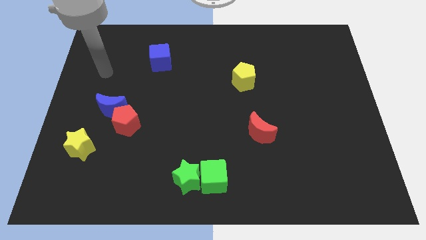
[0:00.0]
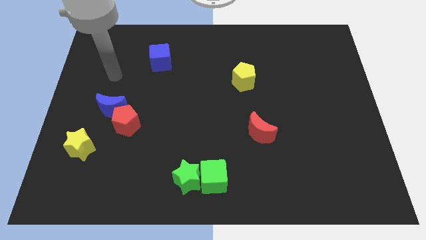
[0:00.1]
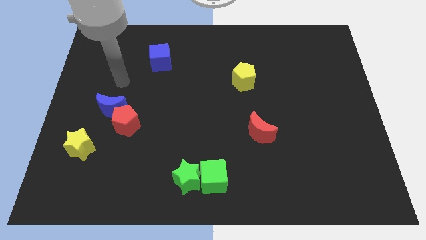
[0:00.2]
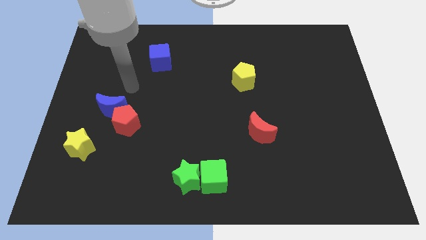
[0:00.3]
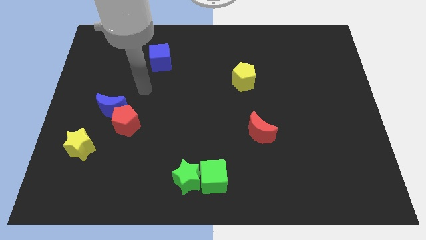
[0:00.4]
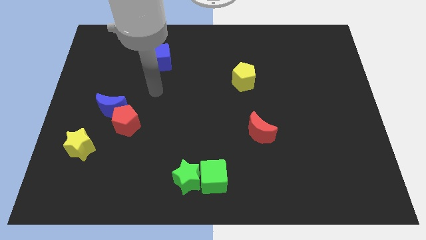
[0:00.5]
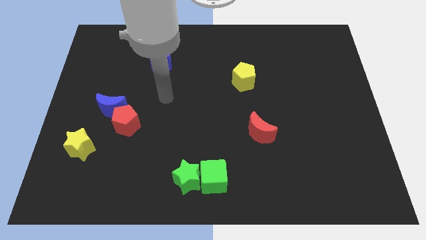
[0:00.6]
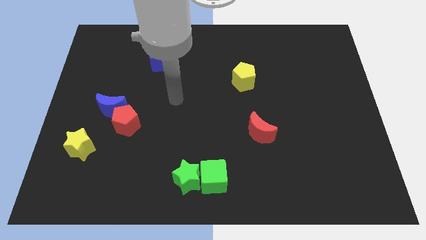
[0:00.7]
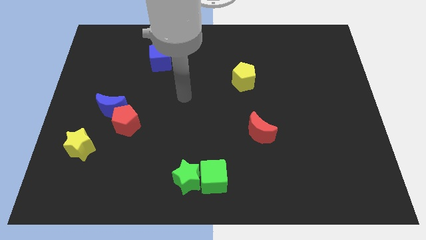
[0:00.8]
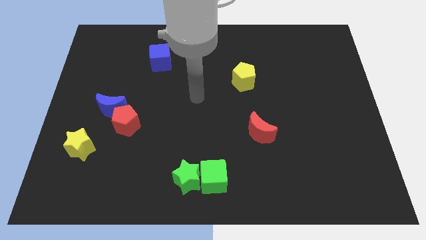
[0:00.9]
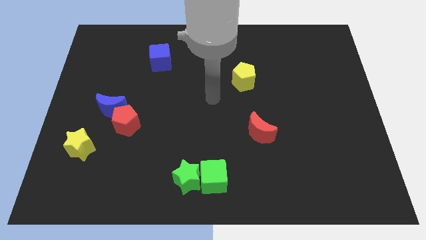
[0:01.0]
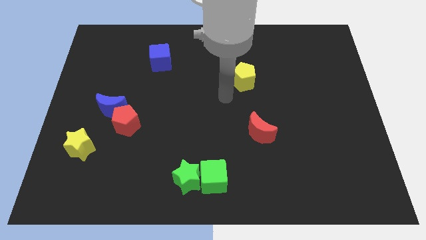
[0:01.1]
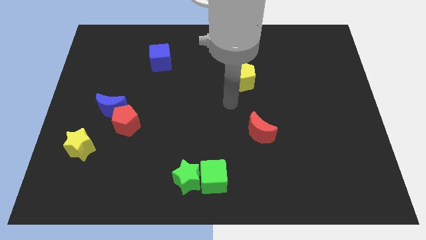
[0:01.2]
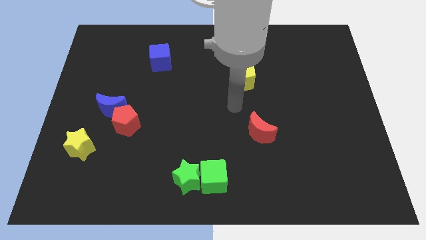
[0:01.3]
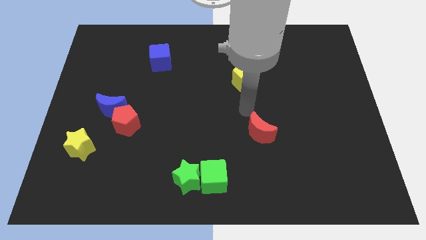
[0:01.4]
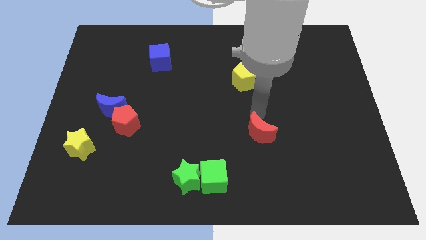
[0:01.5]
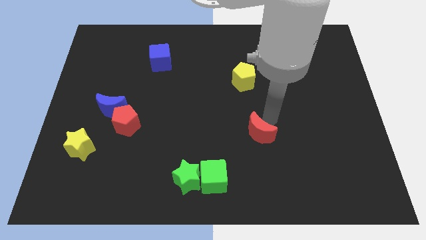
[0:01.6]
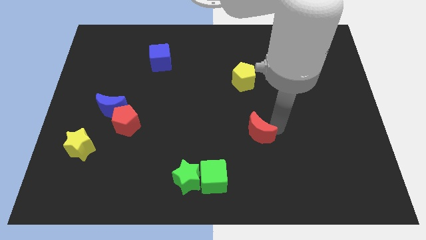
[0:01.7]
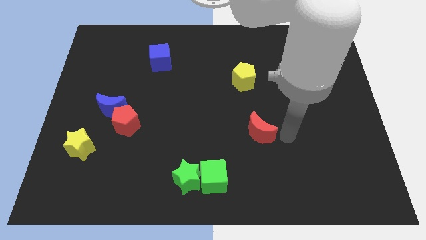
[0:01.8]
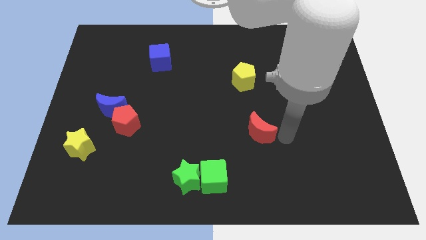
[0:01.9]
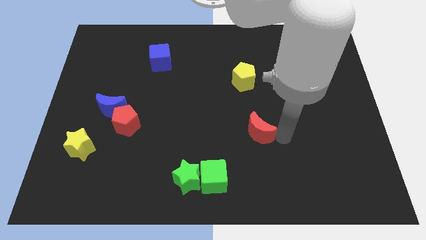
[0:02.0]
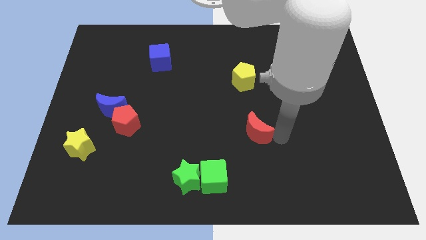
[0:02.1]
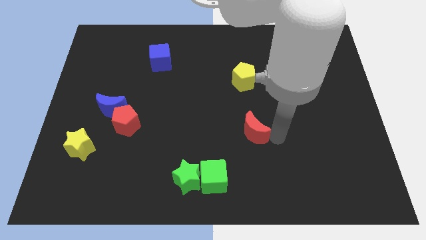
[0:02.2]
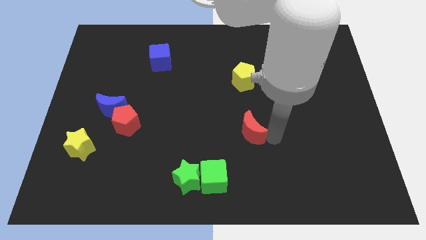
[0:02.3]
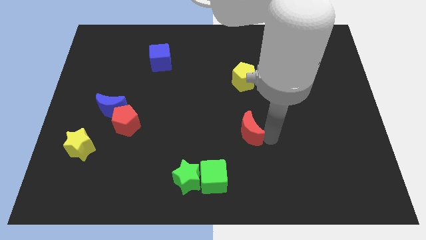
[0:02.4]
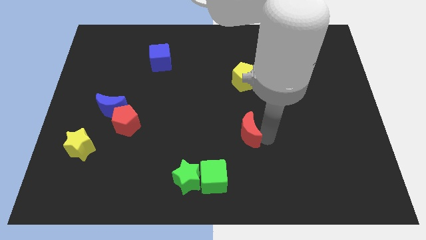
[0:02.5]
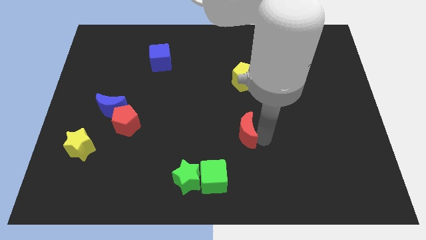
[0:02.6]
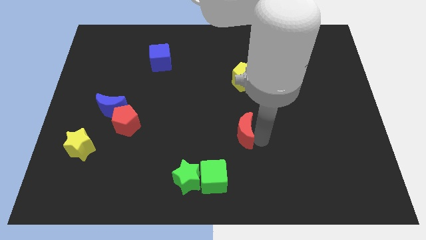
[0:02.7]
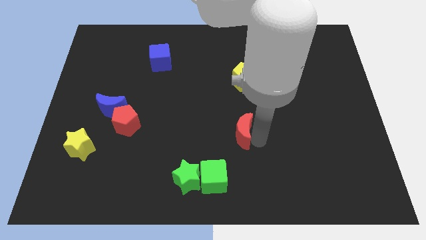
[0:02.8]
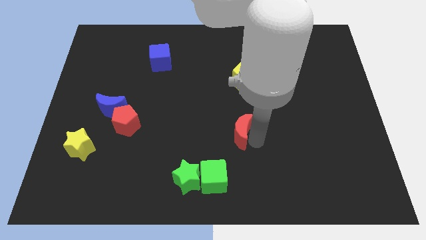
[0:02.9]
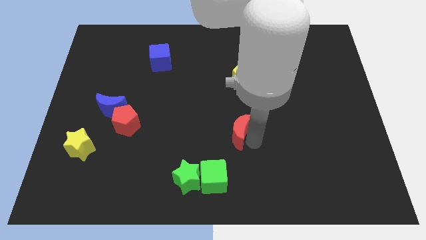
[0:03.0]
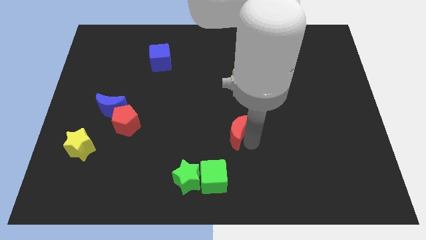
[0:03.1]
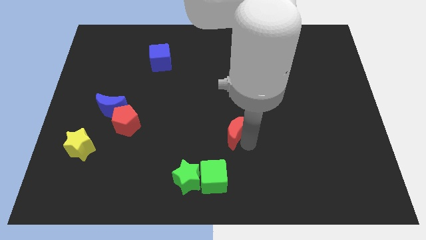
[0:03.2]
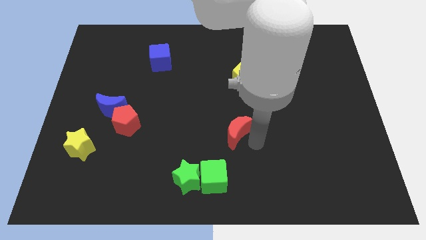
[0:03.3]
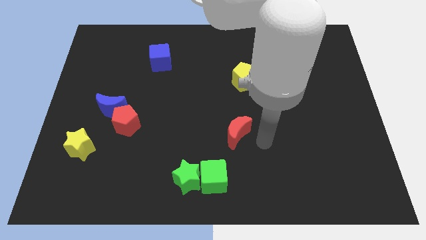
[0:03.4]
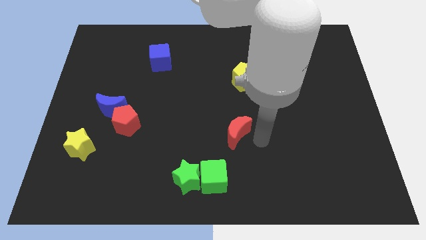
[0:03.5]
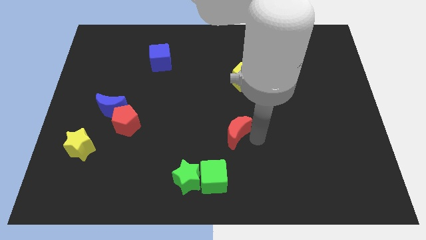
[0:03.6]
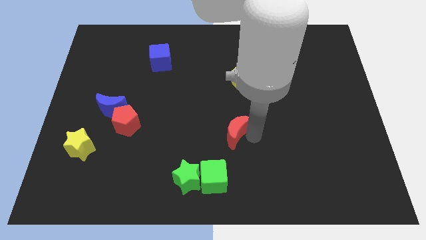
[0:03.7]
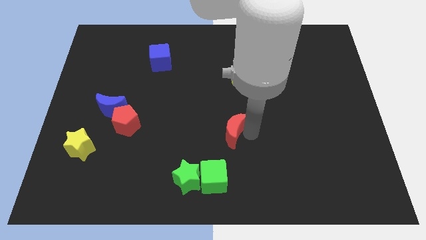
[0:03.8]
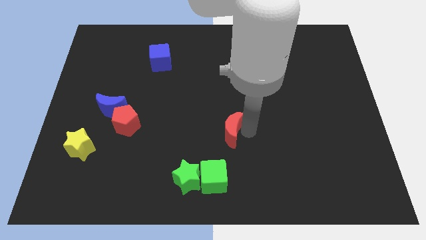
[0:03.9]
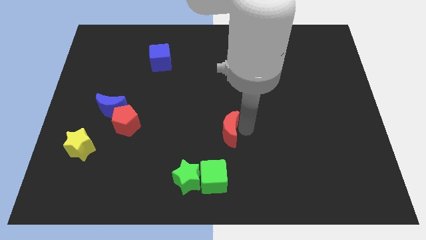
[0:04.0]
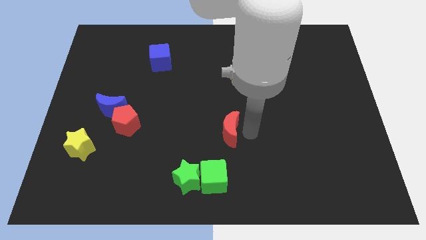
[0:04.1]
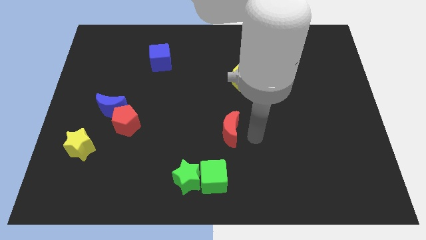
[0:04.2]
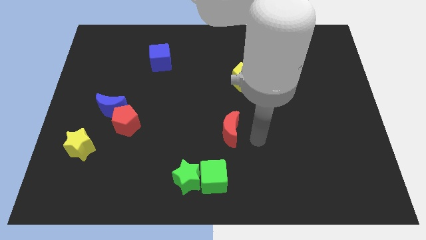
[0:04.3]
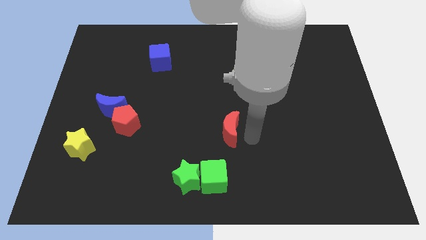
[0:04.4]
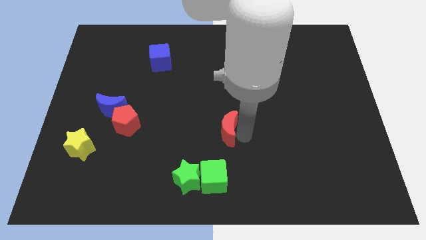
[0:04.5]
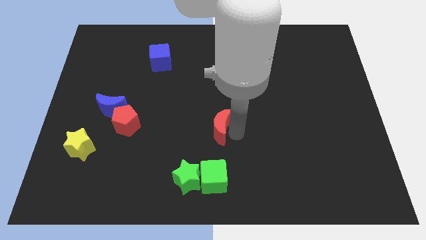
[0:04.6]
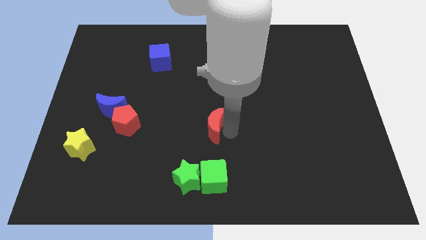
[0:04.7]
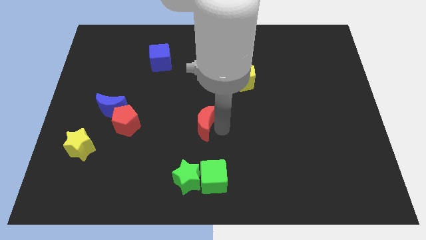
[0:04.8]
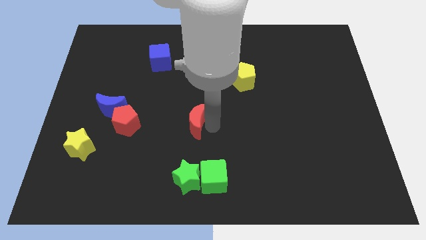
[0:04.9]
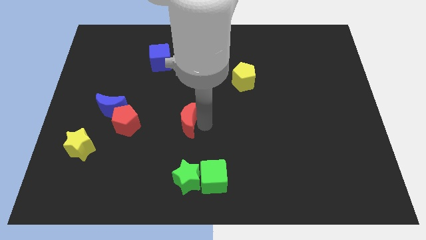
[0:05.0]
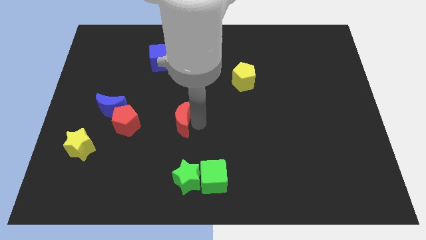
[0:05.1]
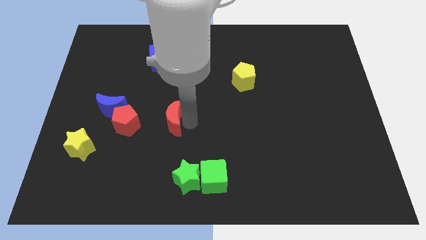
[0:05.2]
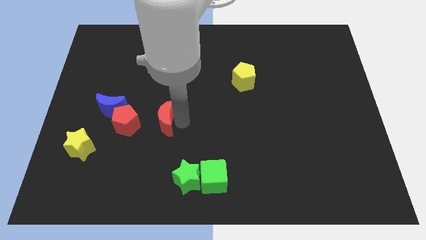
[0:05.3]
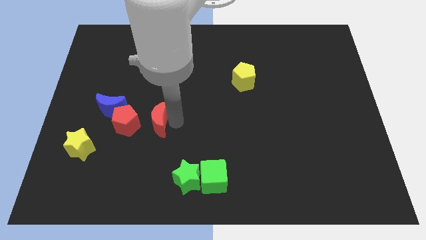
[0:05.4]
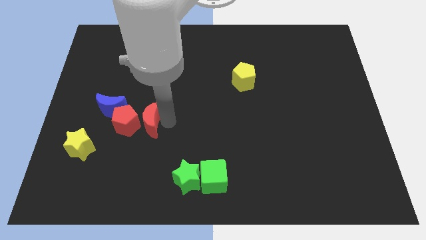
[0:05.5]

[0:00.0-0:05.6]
put the red moon close to the red pentagon

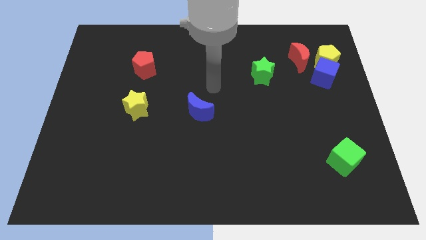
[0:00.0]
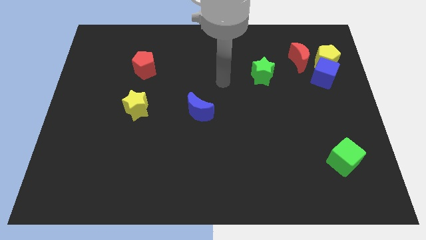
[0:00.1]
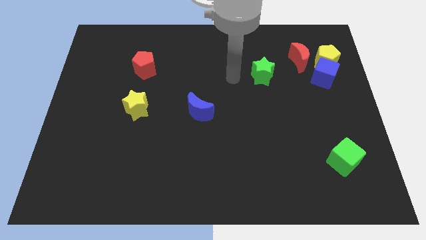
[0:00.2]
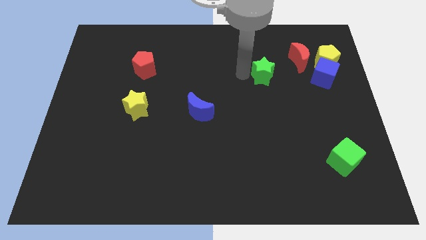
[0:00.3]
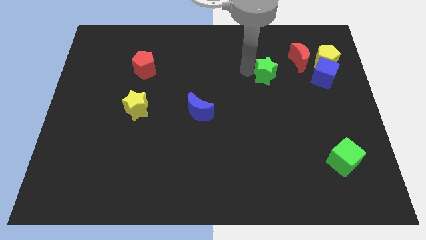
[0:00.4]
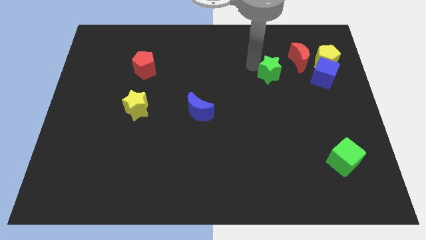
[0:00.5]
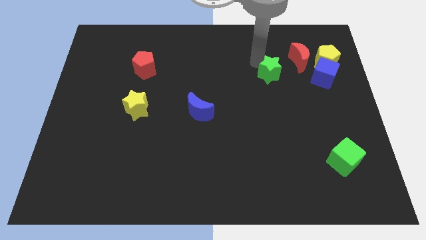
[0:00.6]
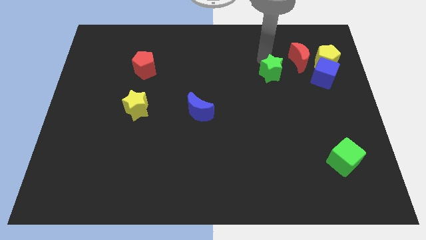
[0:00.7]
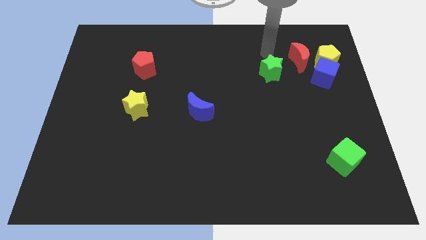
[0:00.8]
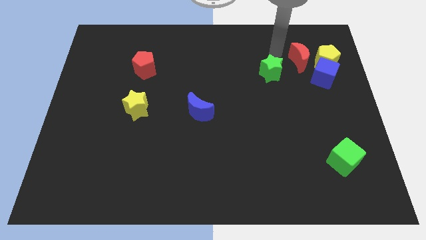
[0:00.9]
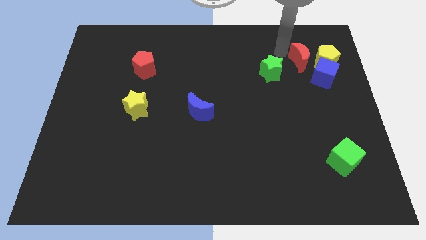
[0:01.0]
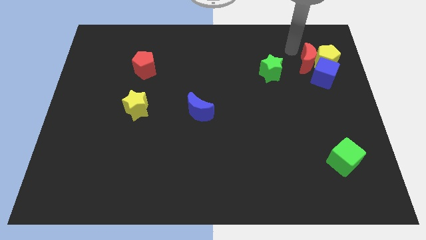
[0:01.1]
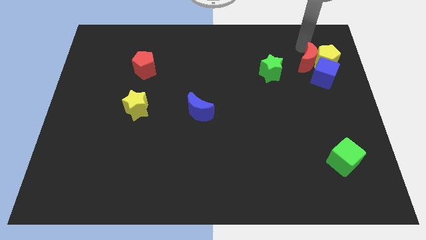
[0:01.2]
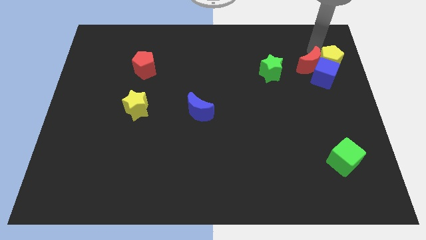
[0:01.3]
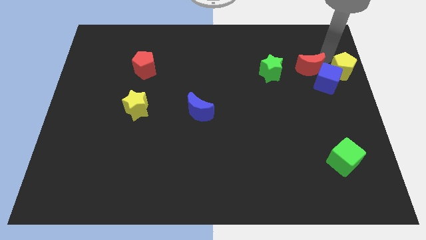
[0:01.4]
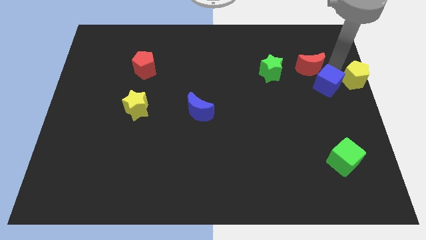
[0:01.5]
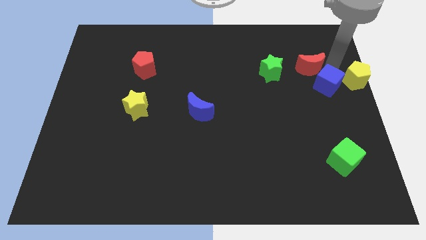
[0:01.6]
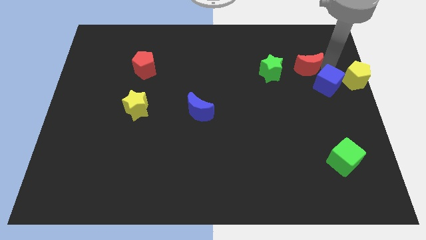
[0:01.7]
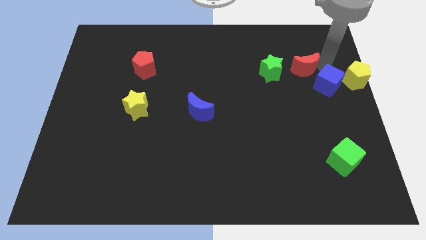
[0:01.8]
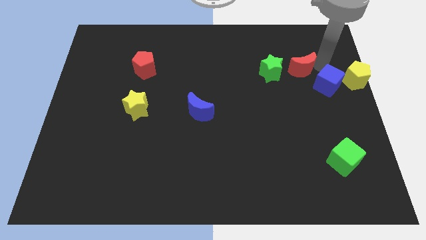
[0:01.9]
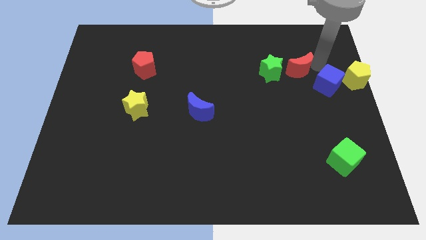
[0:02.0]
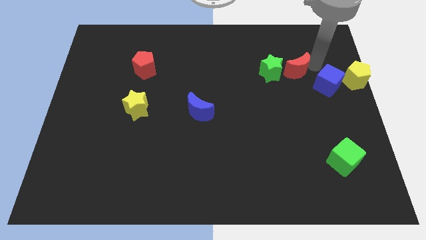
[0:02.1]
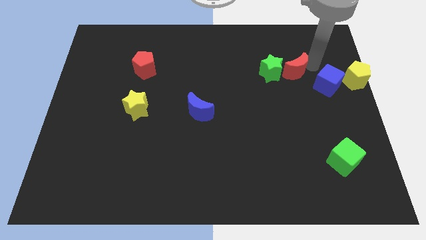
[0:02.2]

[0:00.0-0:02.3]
slide the red moon towards the green star
